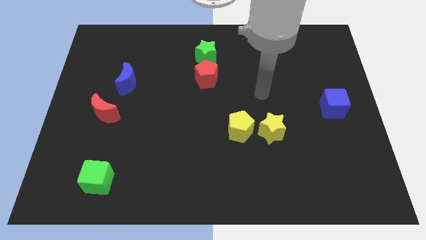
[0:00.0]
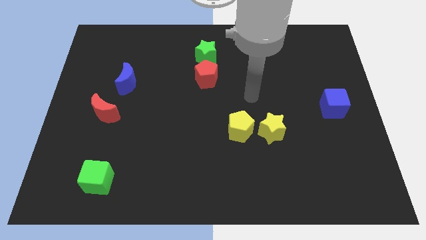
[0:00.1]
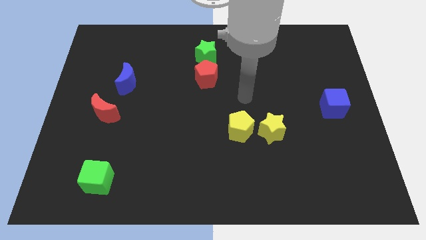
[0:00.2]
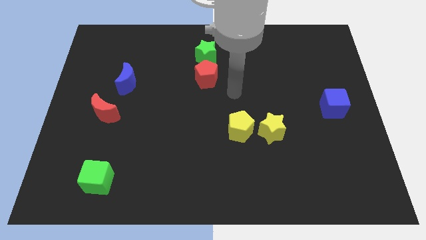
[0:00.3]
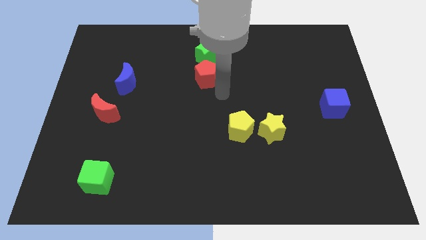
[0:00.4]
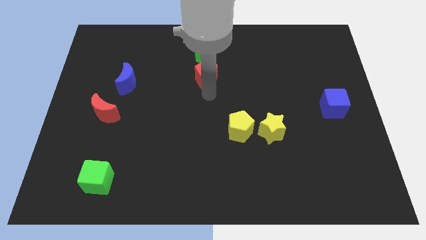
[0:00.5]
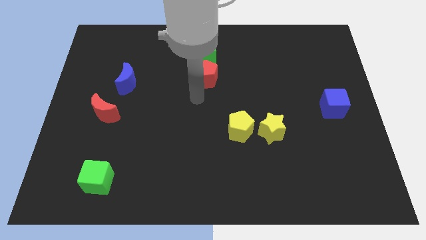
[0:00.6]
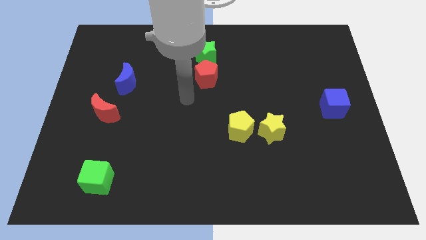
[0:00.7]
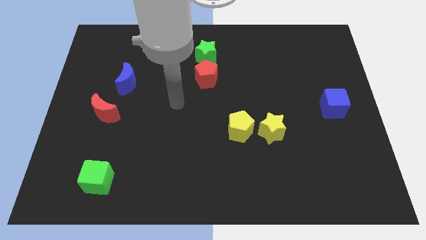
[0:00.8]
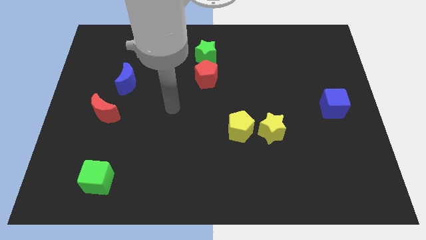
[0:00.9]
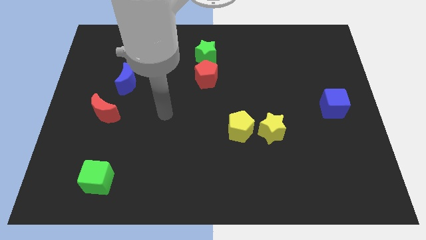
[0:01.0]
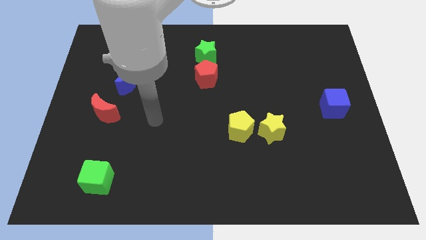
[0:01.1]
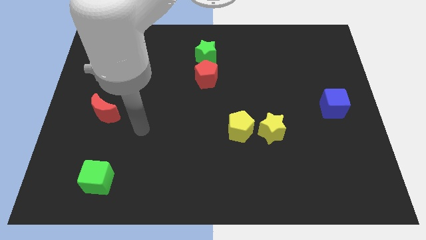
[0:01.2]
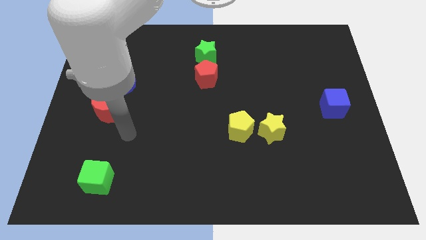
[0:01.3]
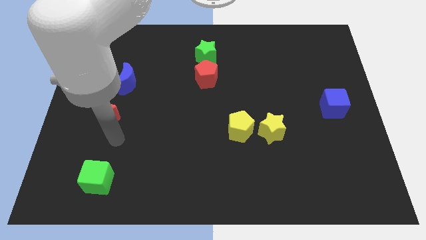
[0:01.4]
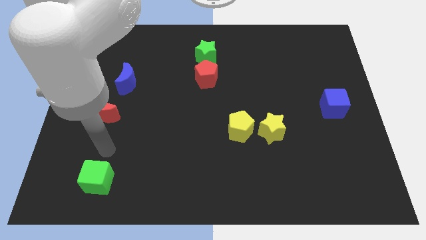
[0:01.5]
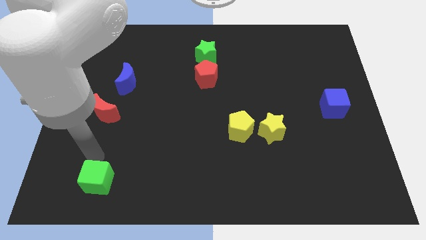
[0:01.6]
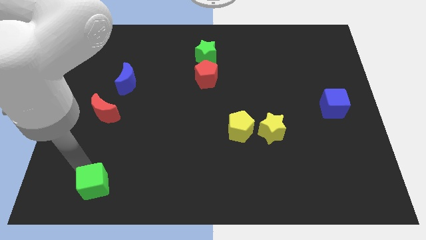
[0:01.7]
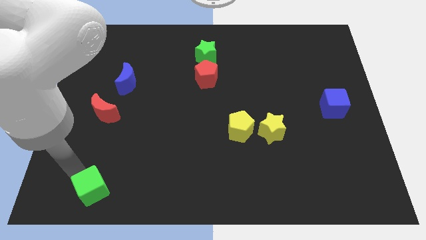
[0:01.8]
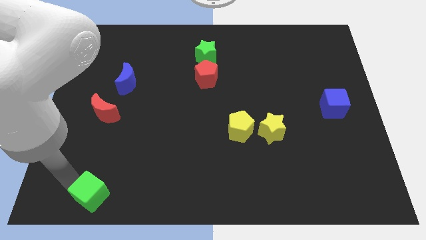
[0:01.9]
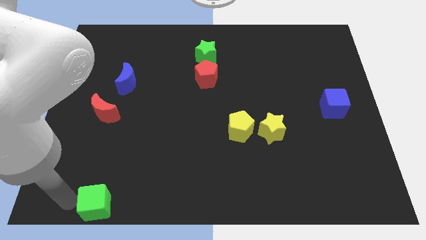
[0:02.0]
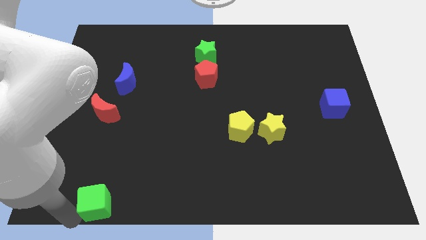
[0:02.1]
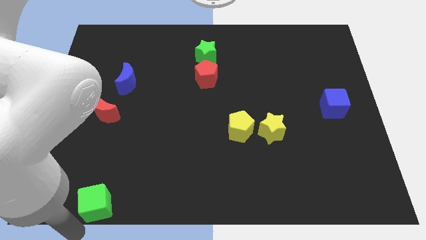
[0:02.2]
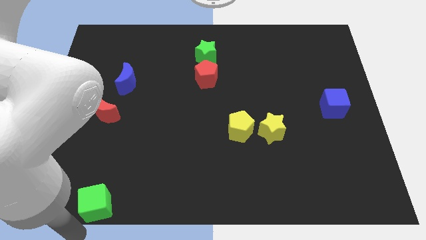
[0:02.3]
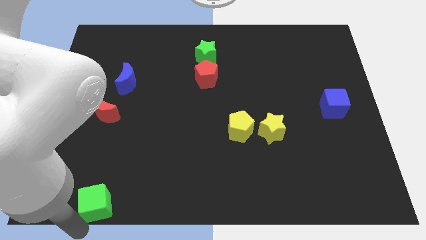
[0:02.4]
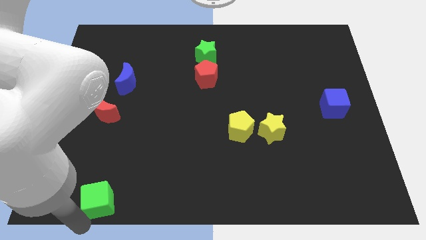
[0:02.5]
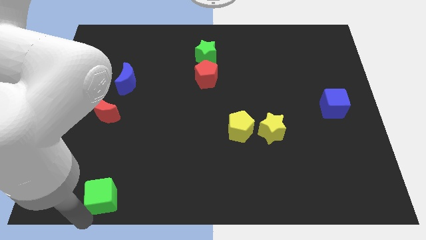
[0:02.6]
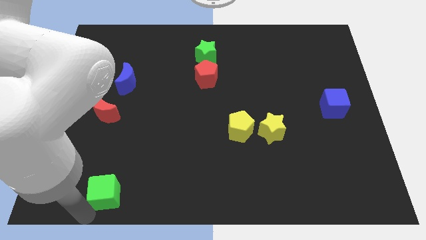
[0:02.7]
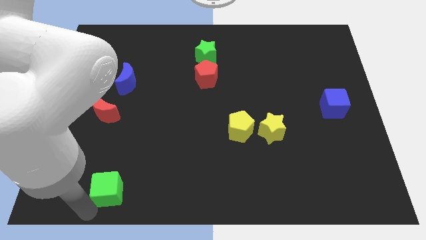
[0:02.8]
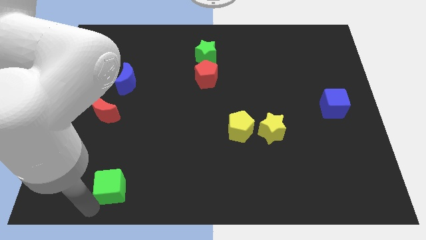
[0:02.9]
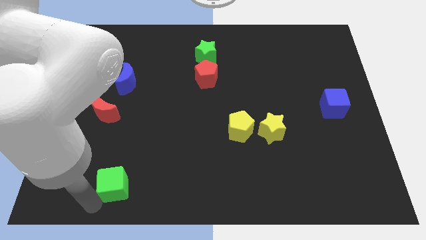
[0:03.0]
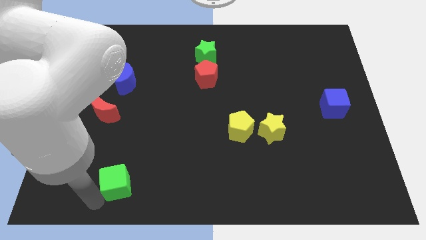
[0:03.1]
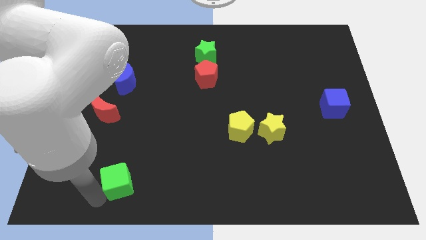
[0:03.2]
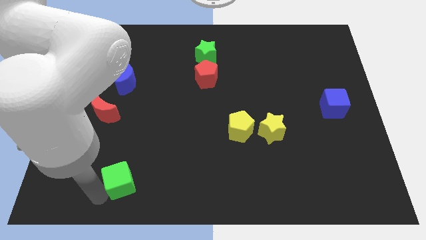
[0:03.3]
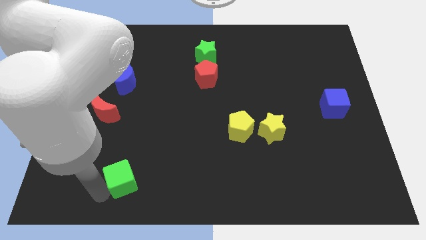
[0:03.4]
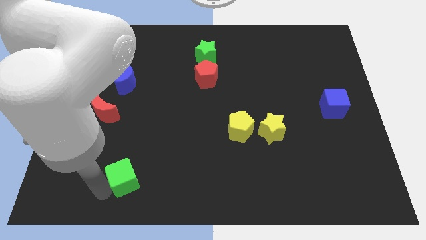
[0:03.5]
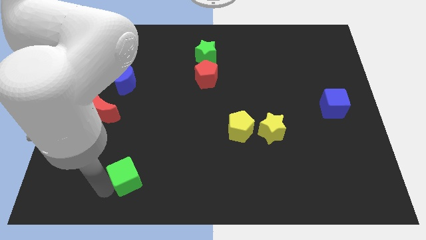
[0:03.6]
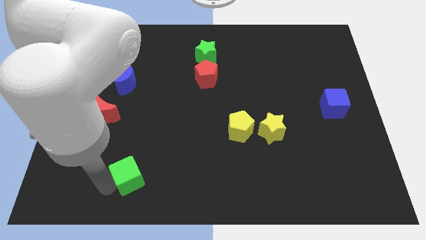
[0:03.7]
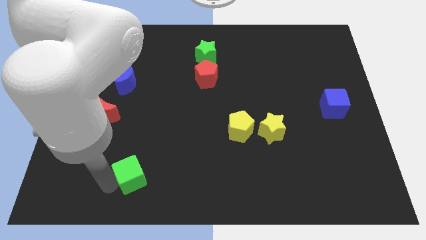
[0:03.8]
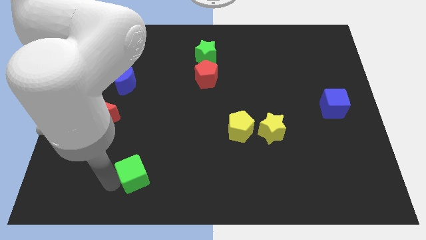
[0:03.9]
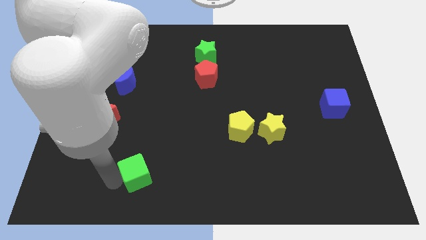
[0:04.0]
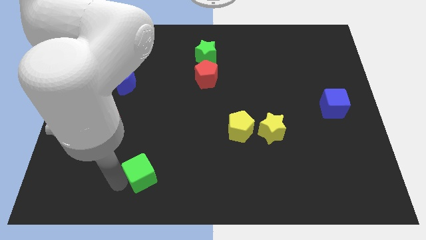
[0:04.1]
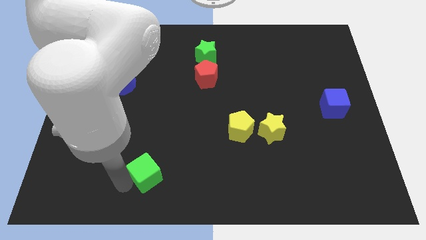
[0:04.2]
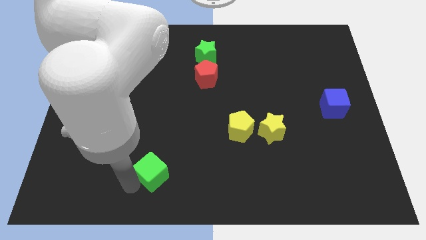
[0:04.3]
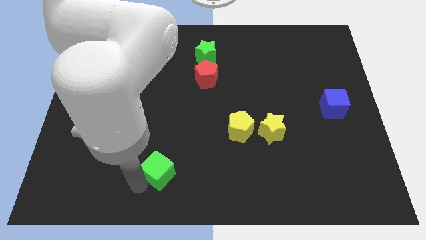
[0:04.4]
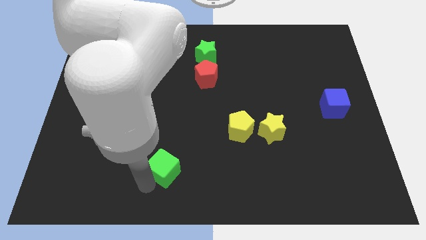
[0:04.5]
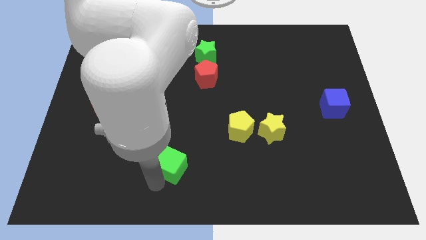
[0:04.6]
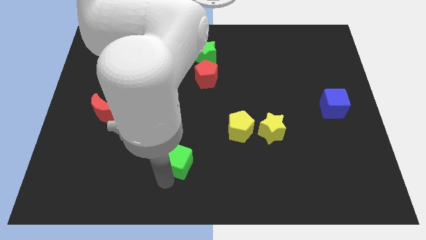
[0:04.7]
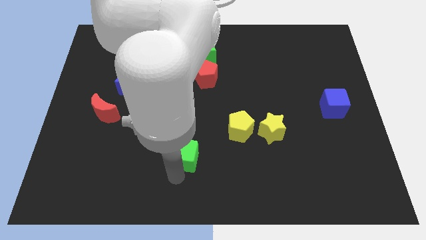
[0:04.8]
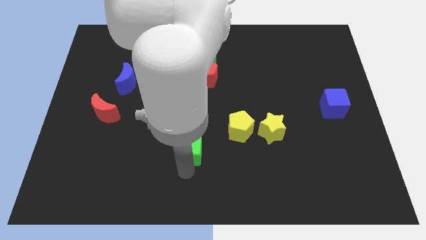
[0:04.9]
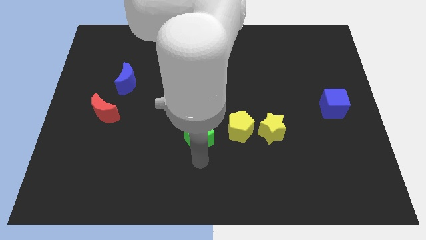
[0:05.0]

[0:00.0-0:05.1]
slide the green cube to the center of the board

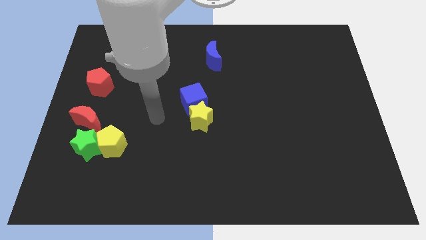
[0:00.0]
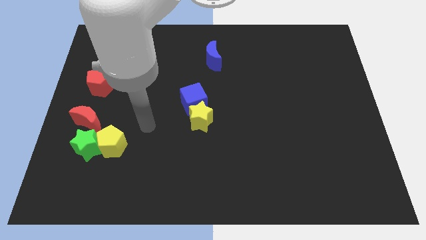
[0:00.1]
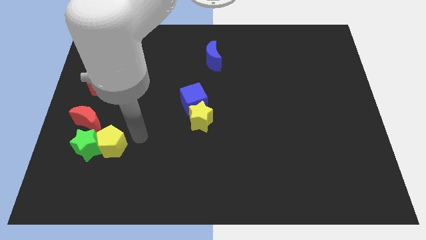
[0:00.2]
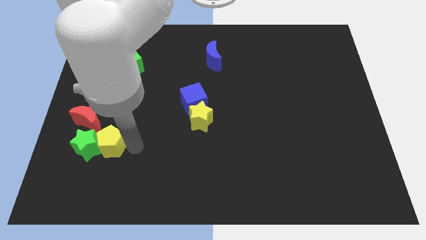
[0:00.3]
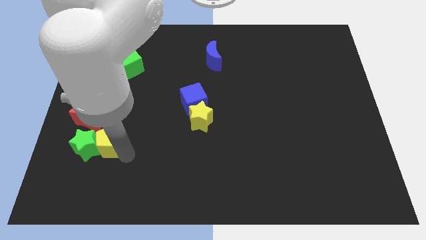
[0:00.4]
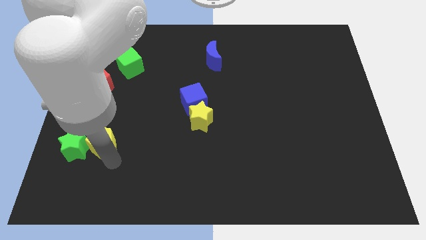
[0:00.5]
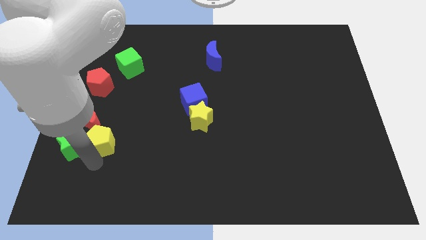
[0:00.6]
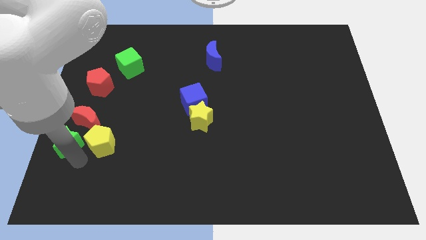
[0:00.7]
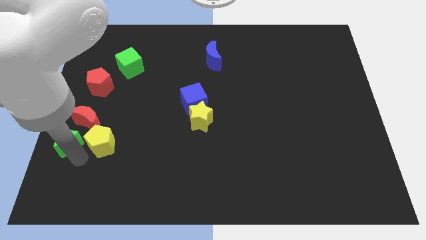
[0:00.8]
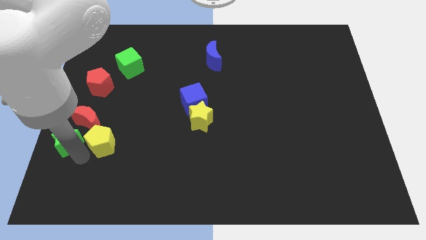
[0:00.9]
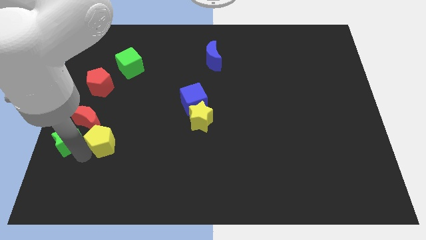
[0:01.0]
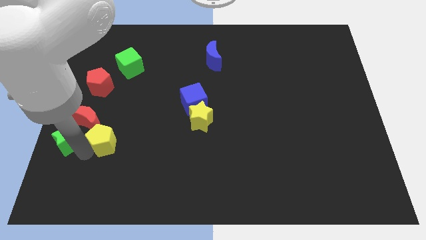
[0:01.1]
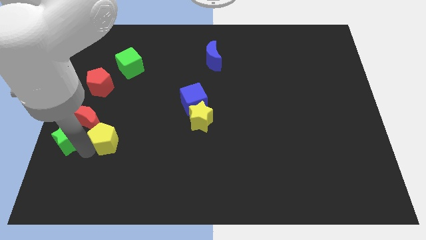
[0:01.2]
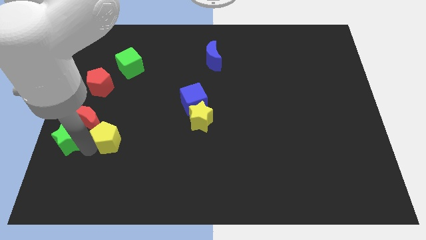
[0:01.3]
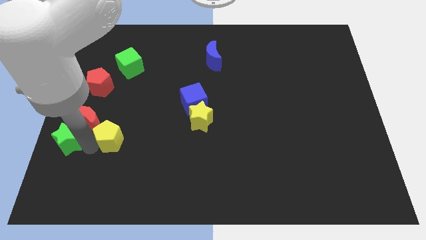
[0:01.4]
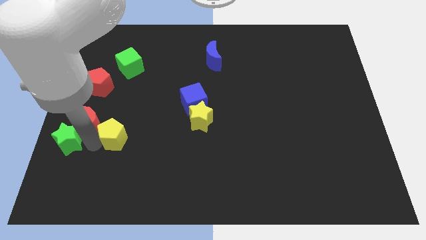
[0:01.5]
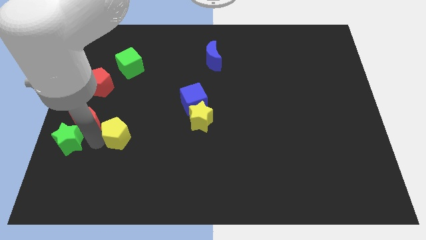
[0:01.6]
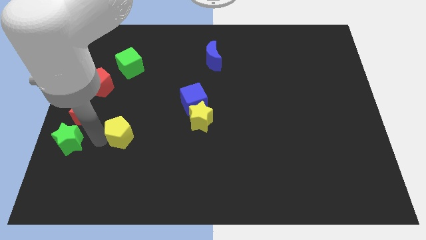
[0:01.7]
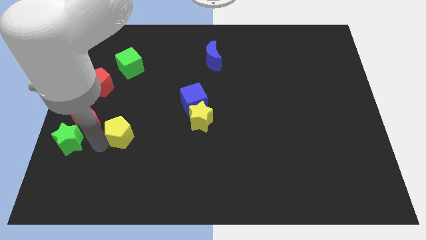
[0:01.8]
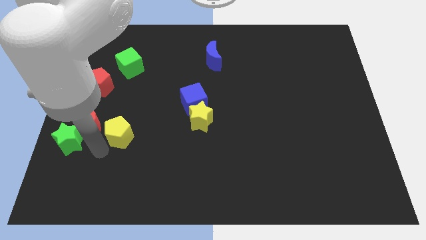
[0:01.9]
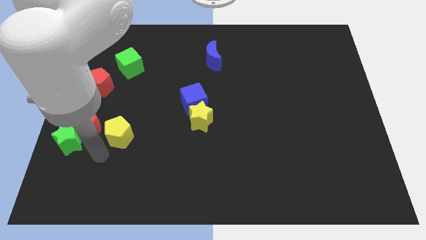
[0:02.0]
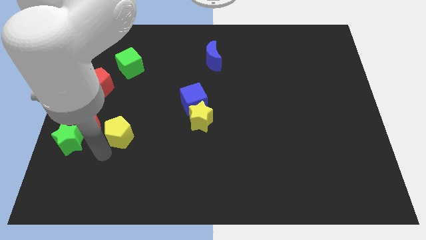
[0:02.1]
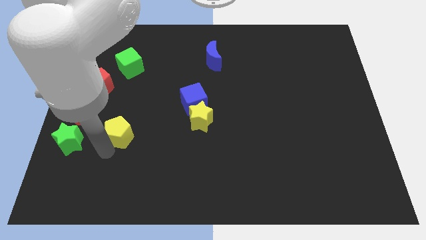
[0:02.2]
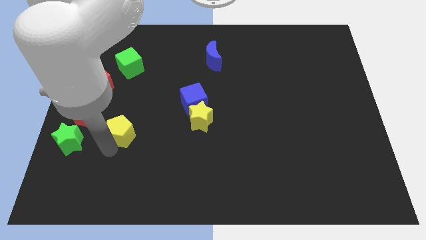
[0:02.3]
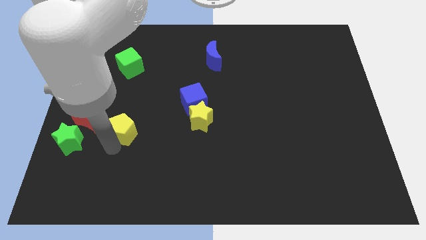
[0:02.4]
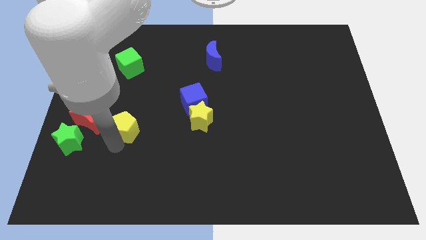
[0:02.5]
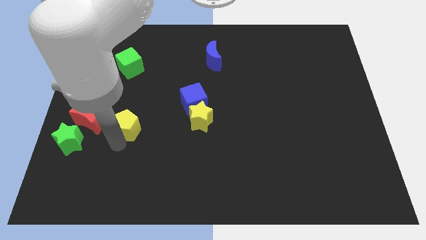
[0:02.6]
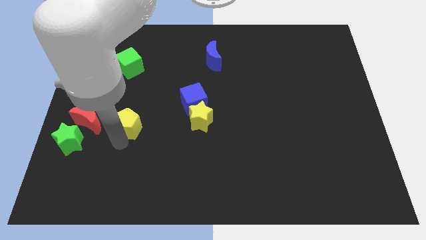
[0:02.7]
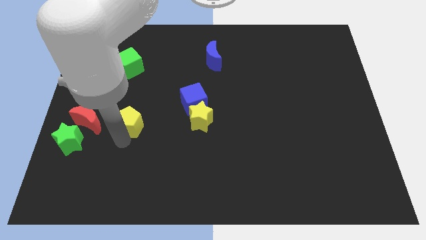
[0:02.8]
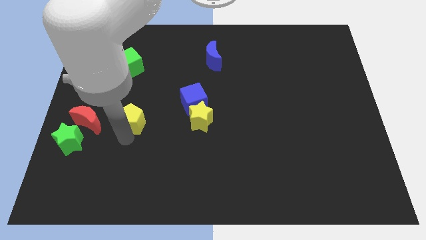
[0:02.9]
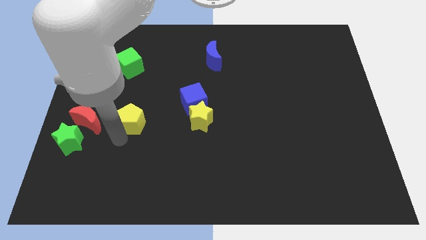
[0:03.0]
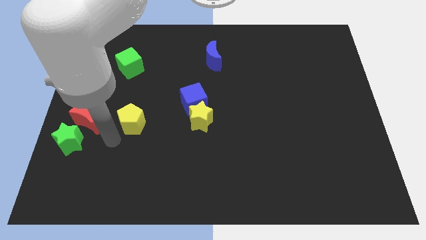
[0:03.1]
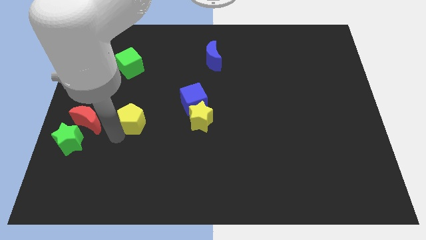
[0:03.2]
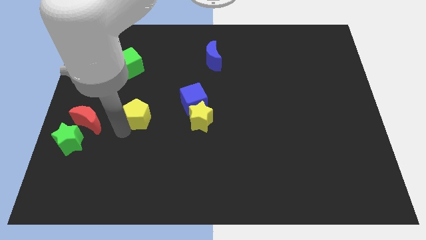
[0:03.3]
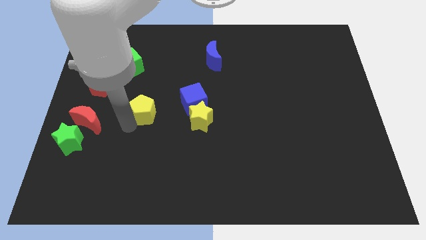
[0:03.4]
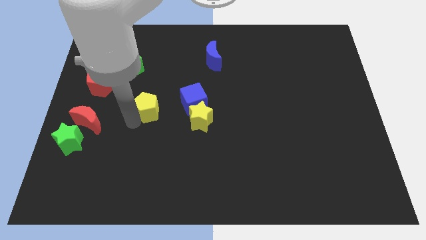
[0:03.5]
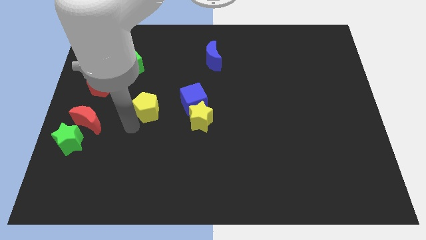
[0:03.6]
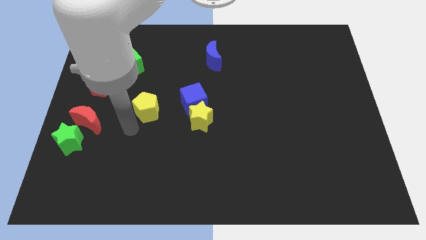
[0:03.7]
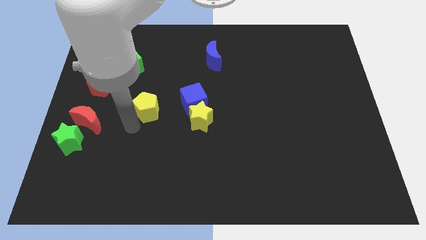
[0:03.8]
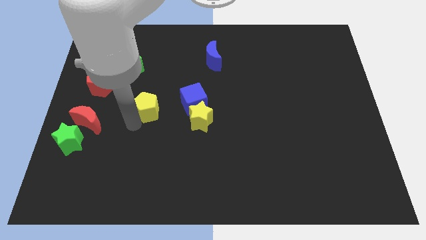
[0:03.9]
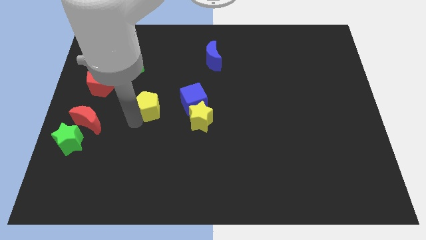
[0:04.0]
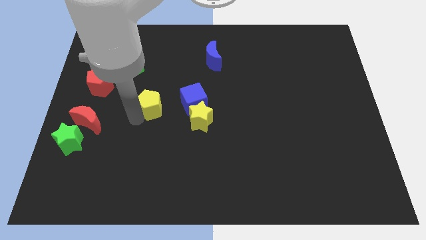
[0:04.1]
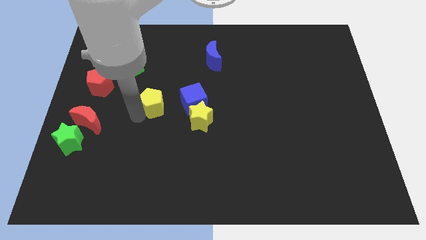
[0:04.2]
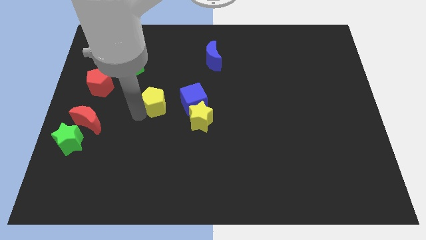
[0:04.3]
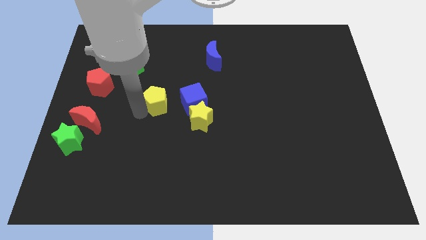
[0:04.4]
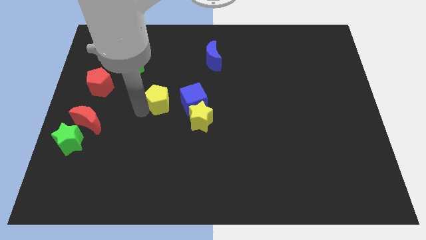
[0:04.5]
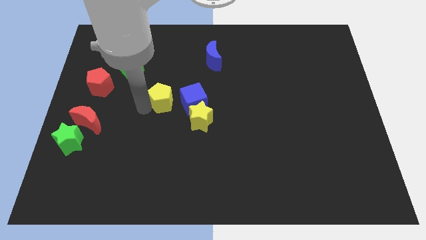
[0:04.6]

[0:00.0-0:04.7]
slide the yellow pentagon to the middle of the board
